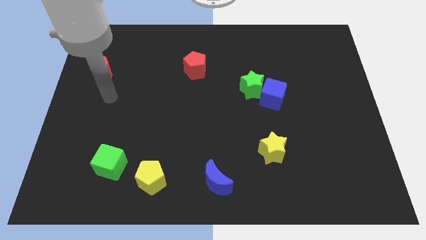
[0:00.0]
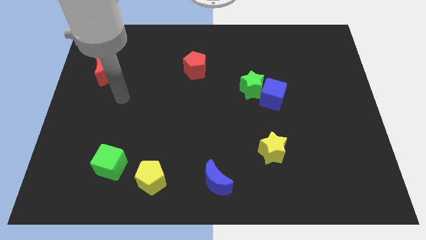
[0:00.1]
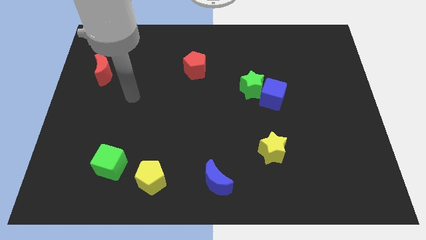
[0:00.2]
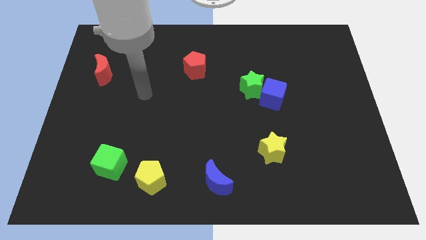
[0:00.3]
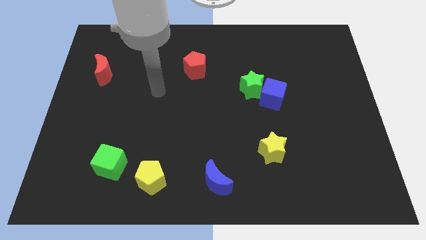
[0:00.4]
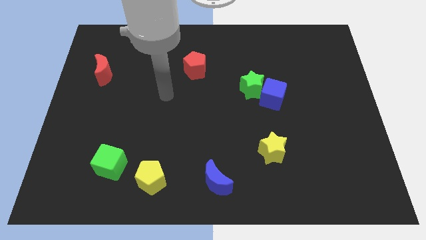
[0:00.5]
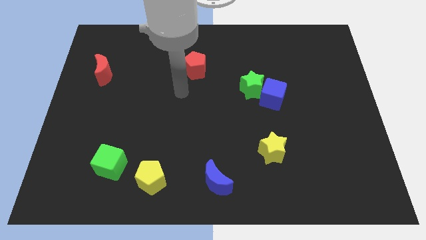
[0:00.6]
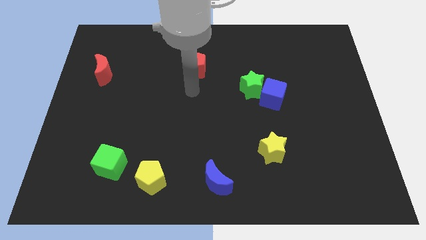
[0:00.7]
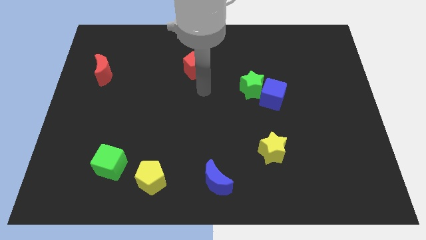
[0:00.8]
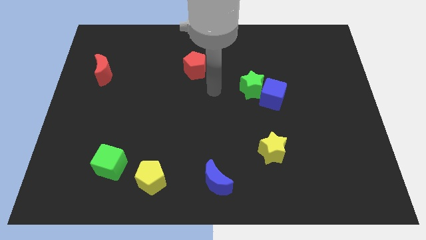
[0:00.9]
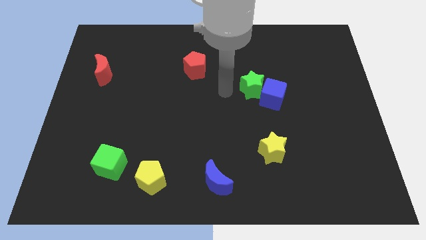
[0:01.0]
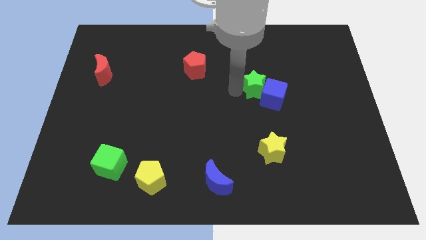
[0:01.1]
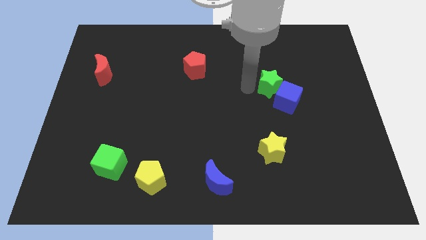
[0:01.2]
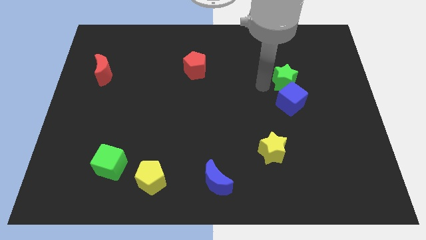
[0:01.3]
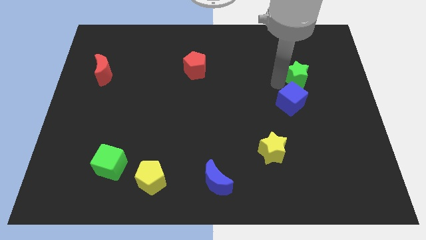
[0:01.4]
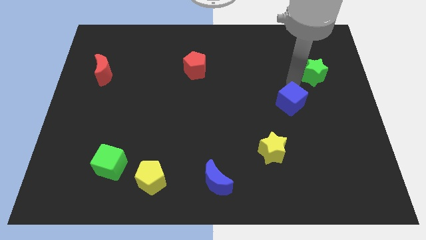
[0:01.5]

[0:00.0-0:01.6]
move the blue cube away from the green star

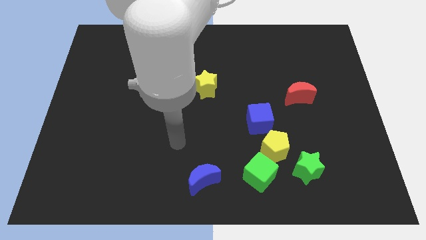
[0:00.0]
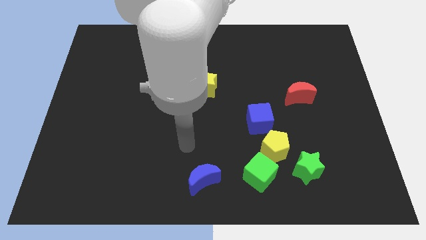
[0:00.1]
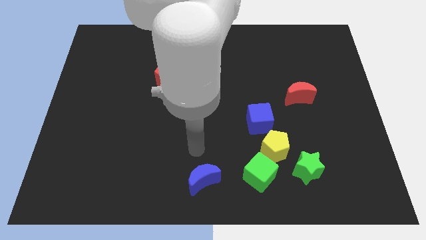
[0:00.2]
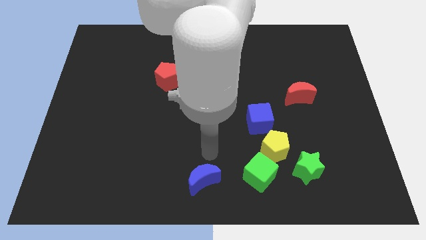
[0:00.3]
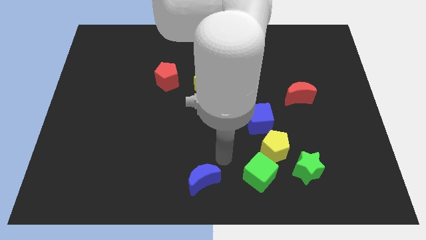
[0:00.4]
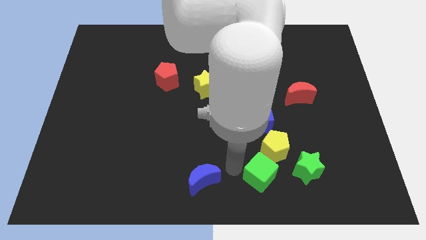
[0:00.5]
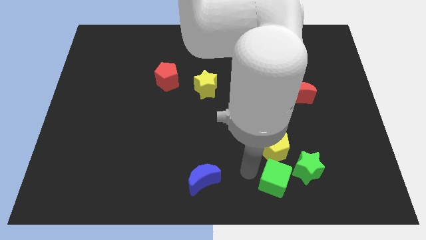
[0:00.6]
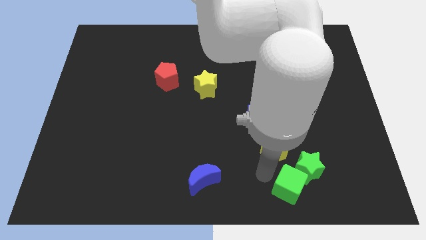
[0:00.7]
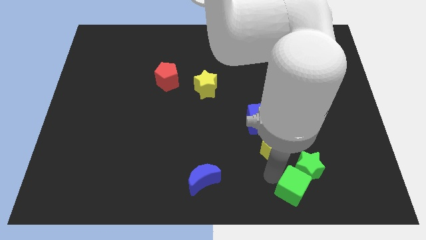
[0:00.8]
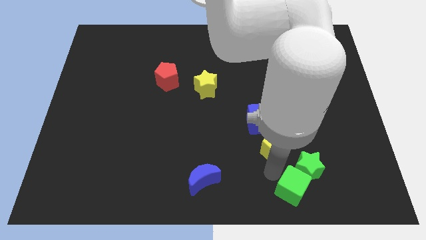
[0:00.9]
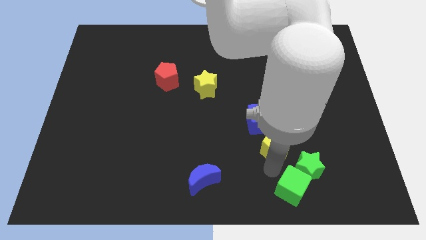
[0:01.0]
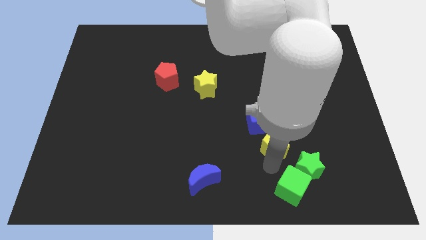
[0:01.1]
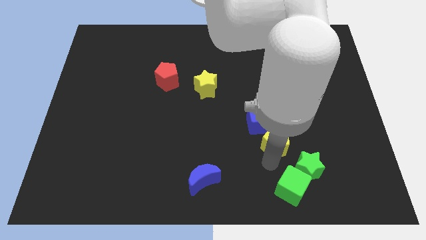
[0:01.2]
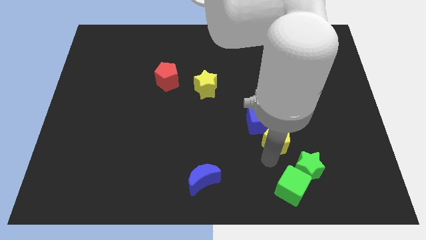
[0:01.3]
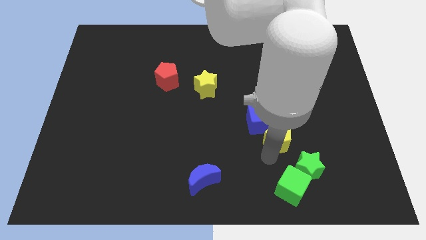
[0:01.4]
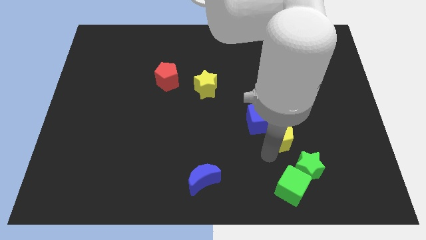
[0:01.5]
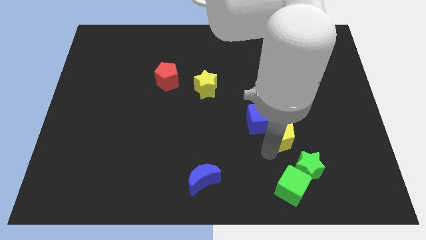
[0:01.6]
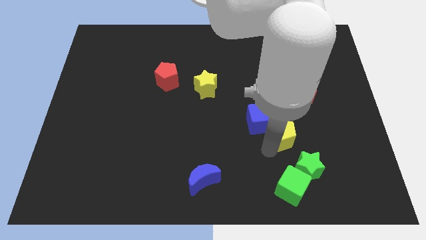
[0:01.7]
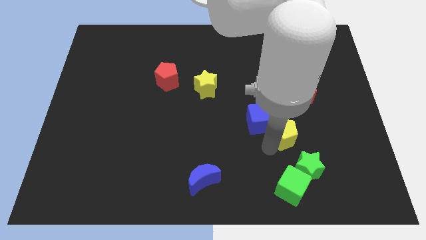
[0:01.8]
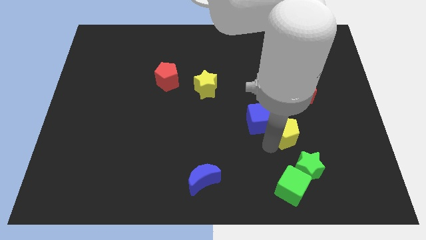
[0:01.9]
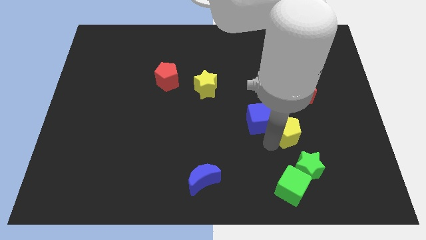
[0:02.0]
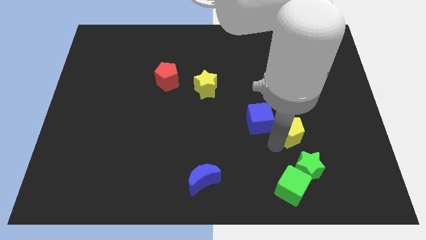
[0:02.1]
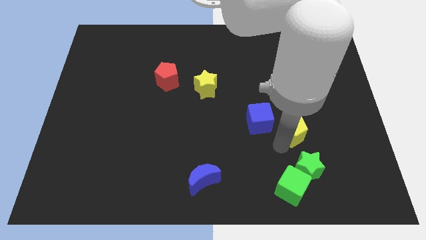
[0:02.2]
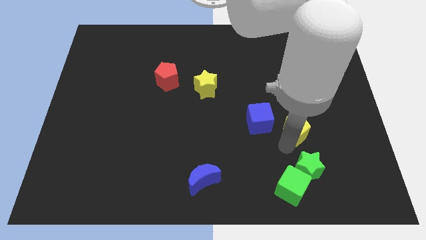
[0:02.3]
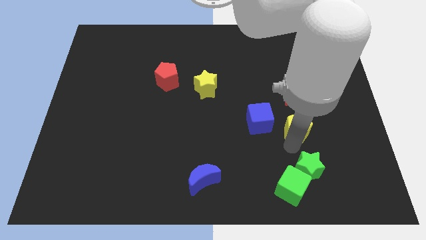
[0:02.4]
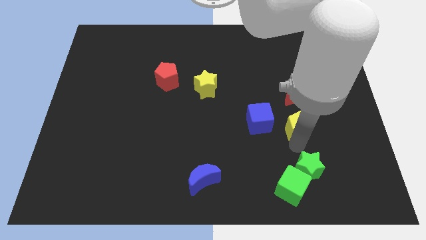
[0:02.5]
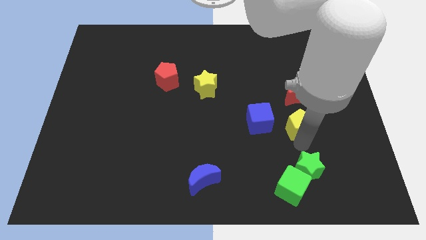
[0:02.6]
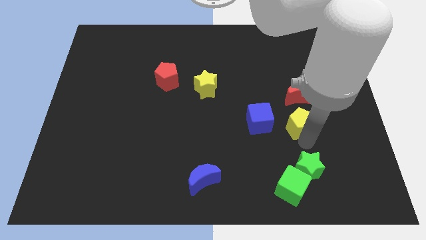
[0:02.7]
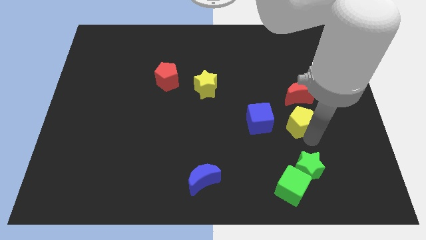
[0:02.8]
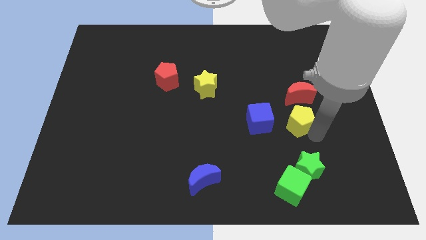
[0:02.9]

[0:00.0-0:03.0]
separate the yellow pentagon from the group

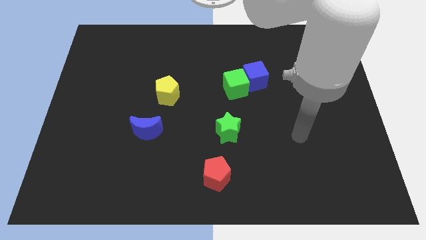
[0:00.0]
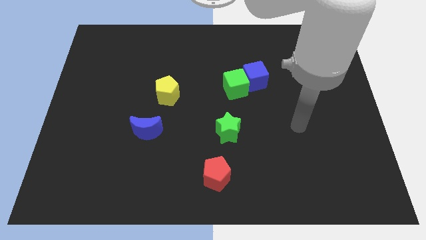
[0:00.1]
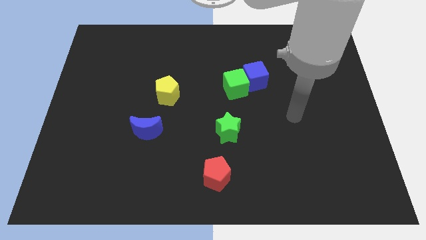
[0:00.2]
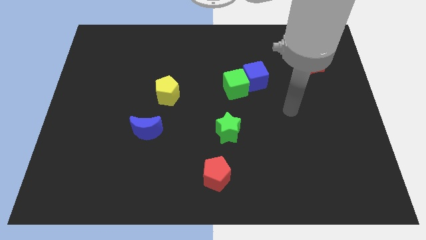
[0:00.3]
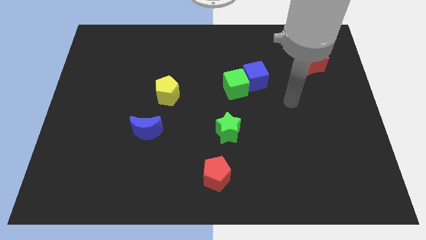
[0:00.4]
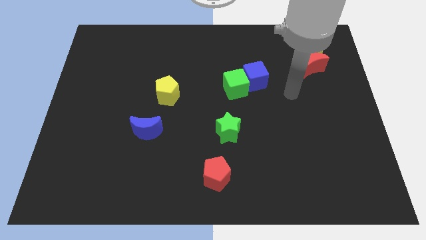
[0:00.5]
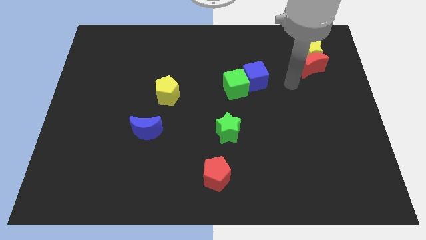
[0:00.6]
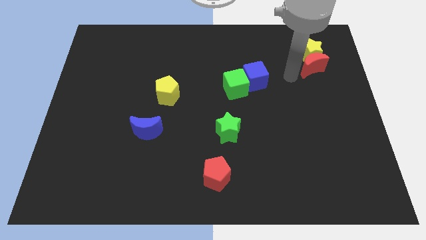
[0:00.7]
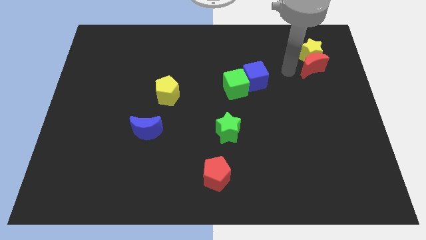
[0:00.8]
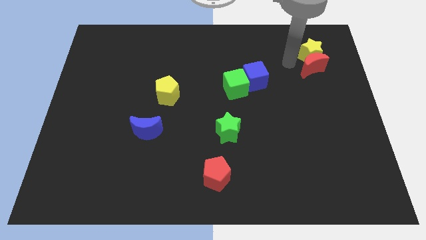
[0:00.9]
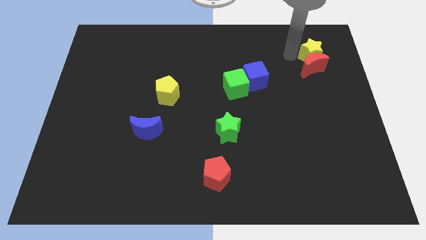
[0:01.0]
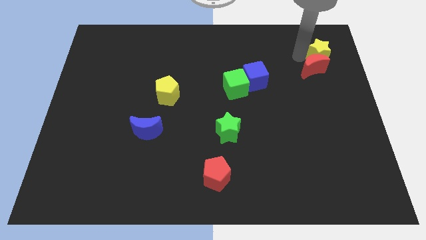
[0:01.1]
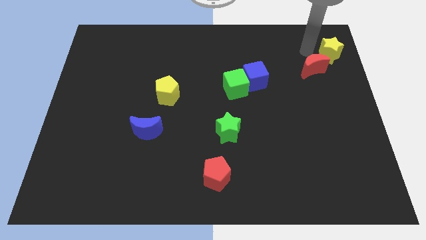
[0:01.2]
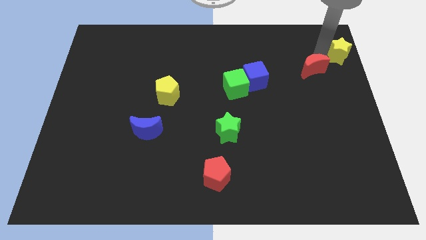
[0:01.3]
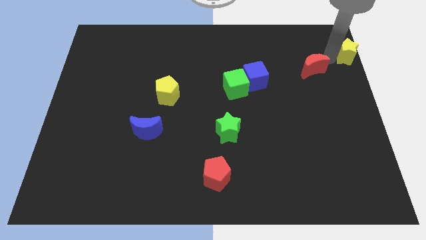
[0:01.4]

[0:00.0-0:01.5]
separate the red moon from the yellow star

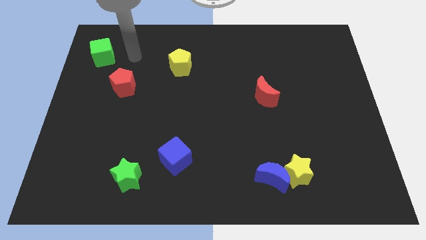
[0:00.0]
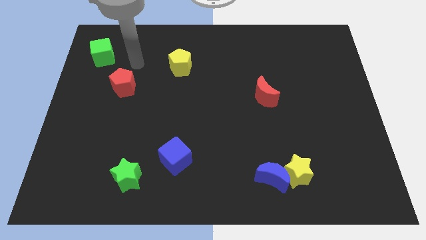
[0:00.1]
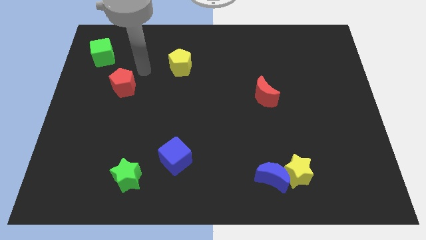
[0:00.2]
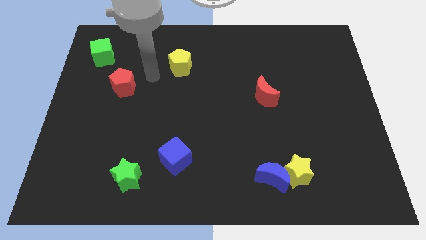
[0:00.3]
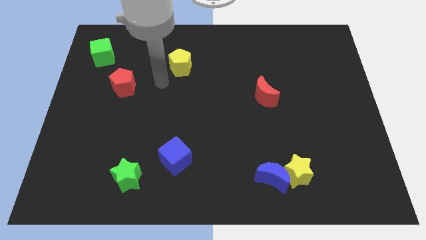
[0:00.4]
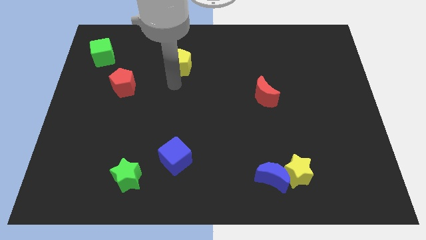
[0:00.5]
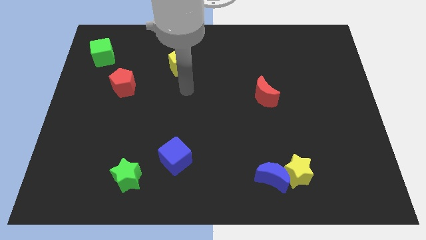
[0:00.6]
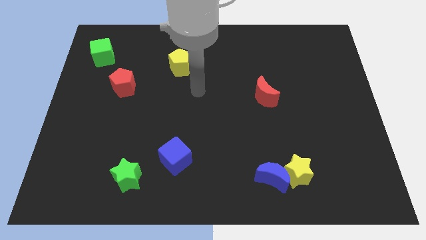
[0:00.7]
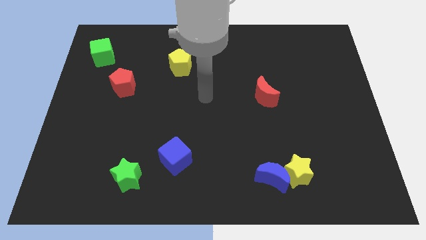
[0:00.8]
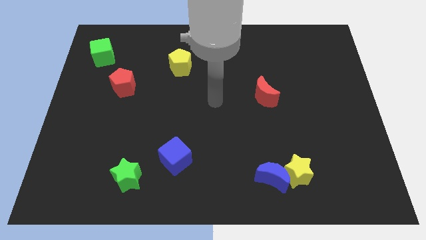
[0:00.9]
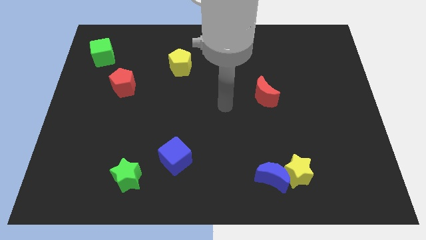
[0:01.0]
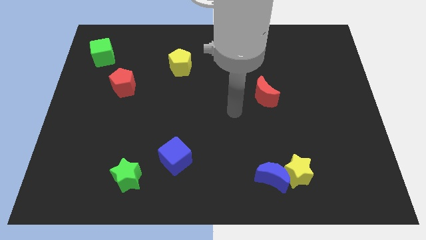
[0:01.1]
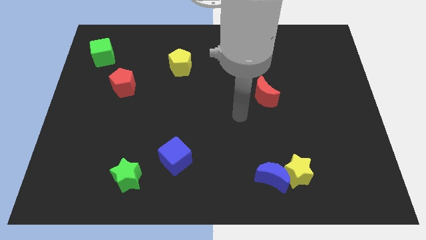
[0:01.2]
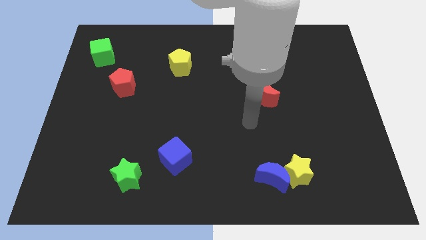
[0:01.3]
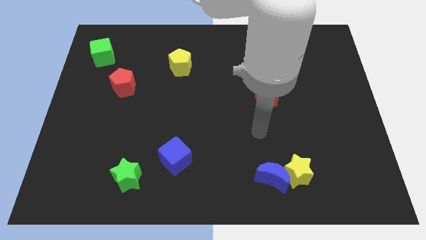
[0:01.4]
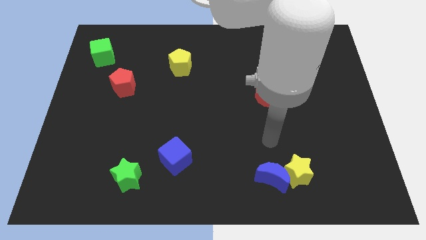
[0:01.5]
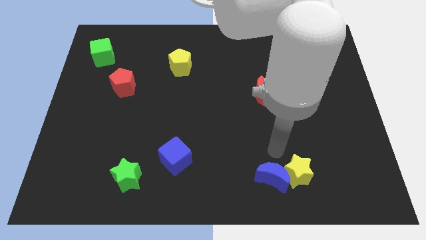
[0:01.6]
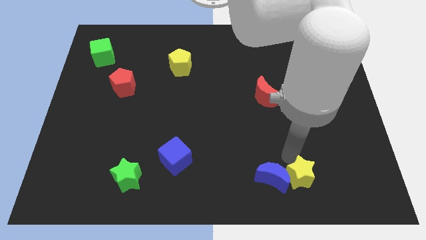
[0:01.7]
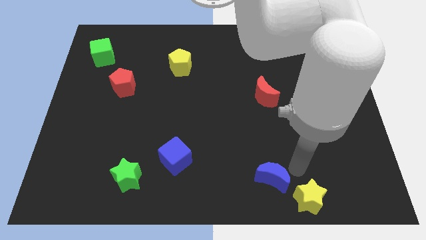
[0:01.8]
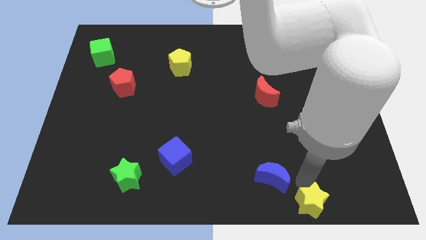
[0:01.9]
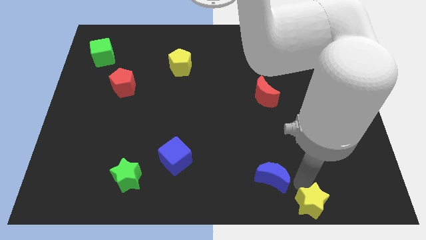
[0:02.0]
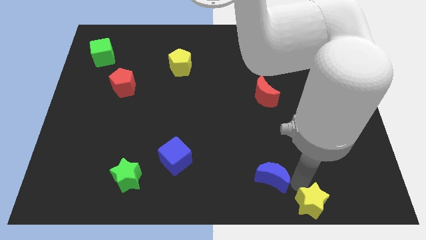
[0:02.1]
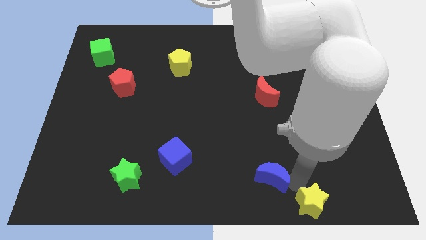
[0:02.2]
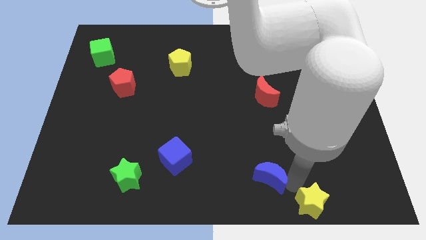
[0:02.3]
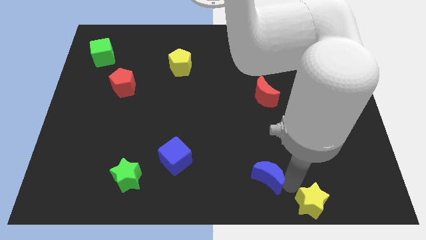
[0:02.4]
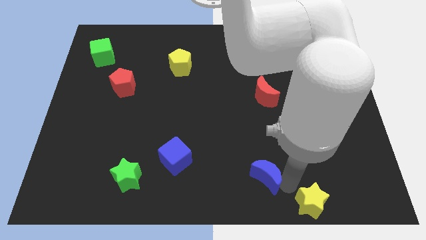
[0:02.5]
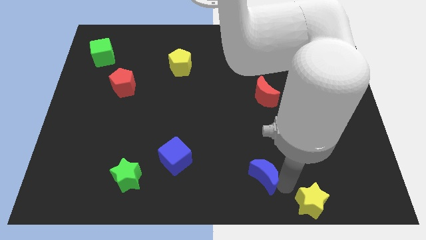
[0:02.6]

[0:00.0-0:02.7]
move the blue moon away from the yellow star

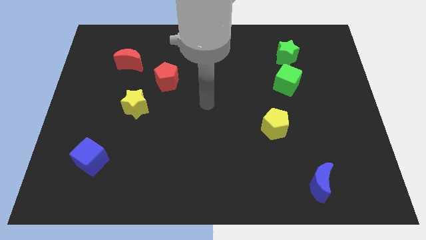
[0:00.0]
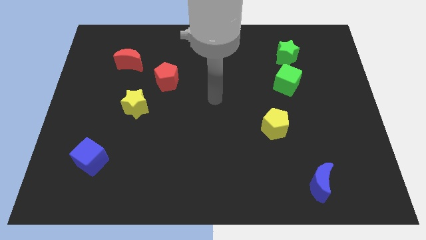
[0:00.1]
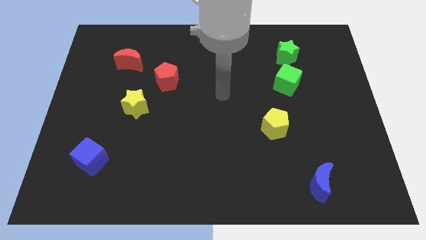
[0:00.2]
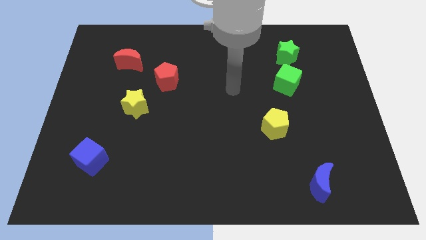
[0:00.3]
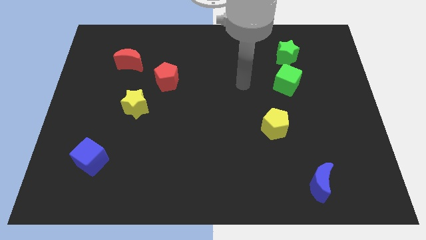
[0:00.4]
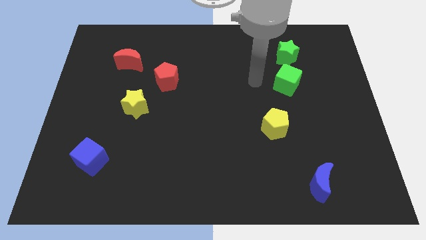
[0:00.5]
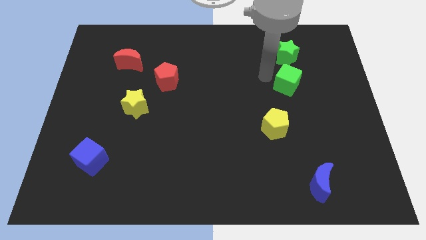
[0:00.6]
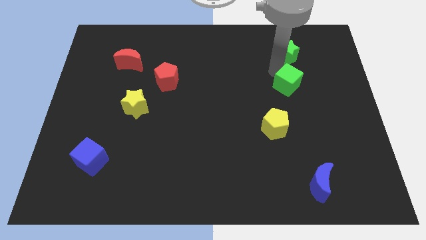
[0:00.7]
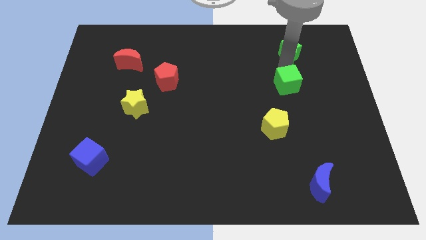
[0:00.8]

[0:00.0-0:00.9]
separate the green cube from the green star
